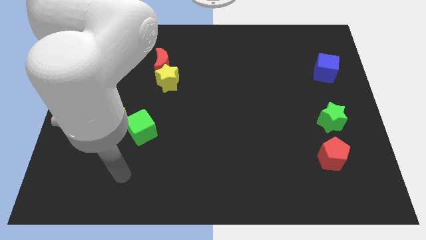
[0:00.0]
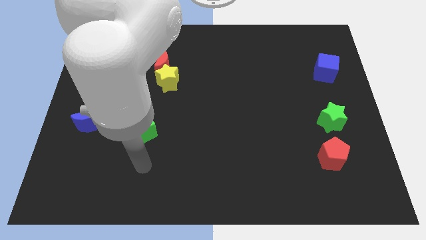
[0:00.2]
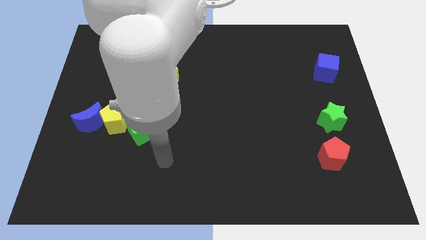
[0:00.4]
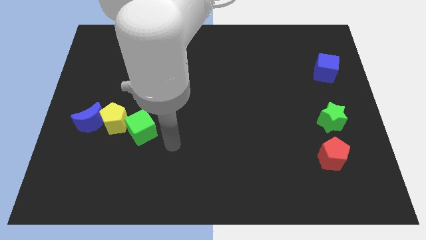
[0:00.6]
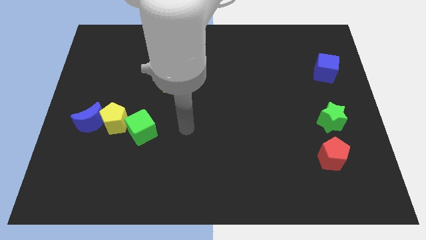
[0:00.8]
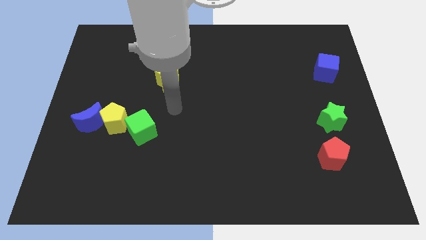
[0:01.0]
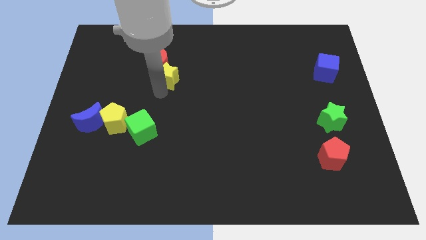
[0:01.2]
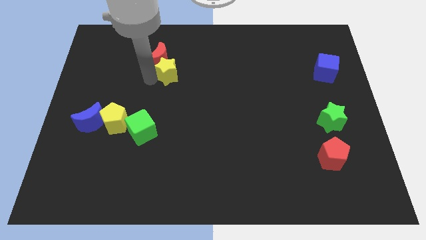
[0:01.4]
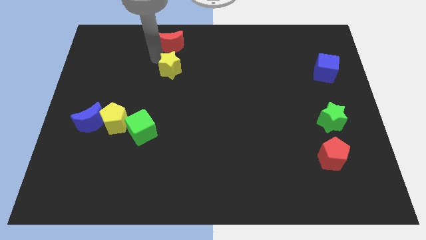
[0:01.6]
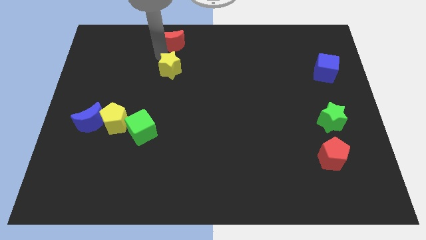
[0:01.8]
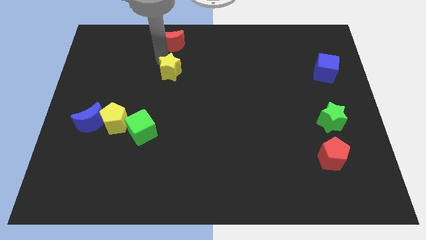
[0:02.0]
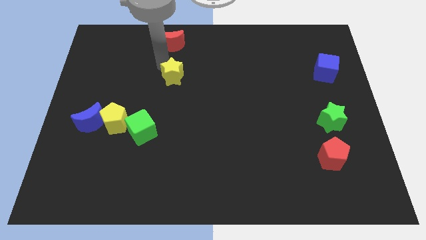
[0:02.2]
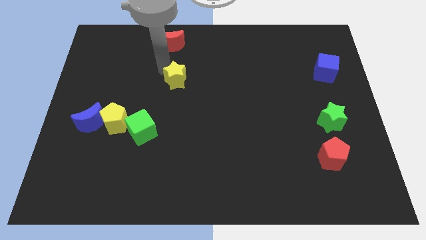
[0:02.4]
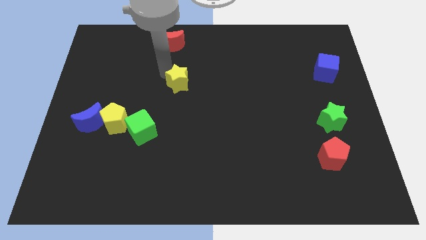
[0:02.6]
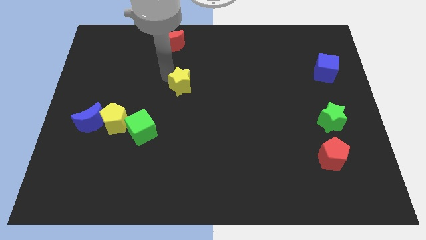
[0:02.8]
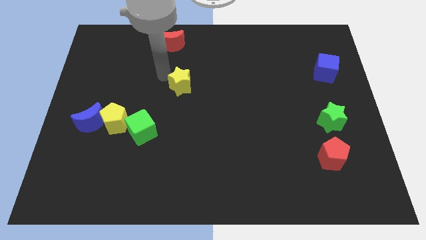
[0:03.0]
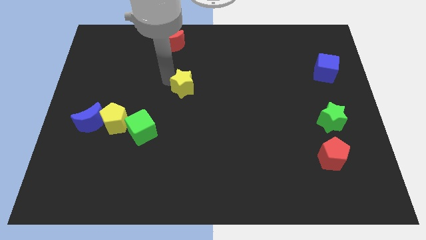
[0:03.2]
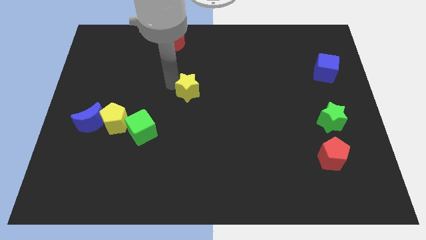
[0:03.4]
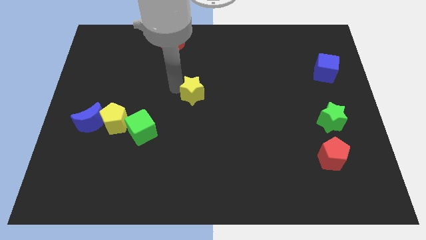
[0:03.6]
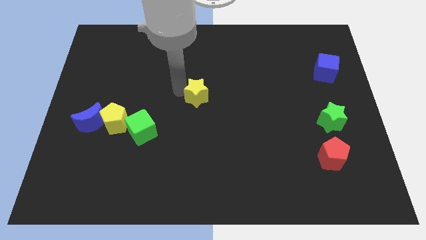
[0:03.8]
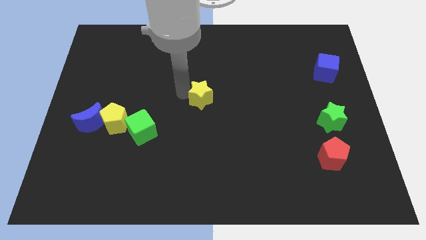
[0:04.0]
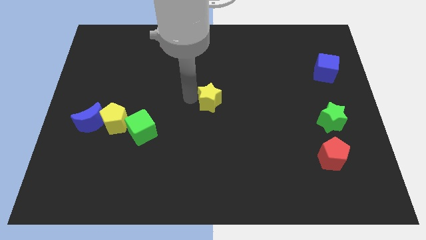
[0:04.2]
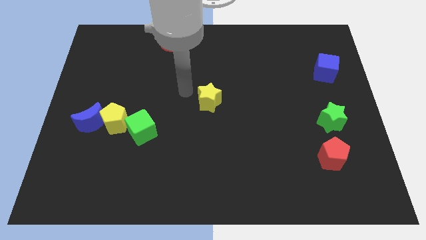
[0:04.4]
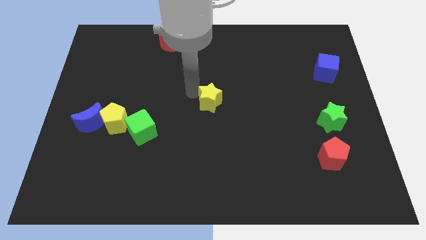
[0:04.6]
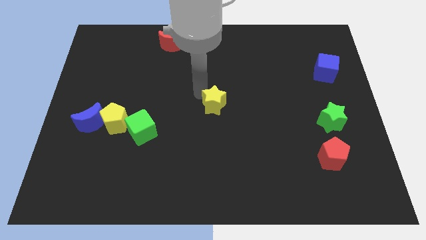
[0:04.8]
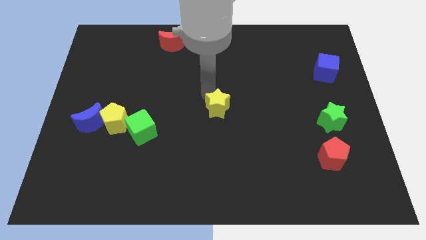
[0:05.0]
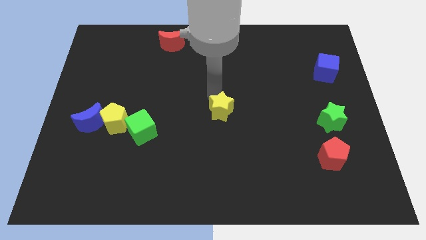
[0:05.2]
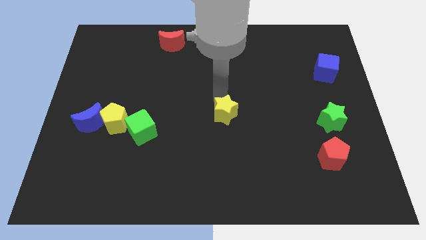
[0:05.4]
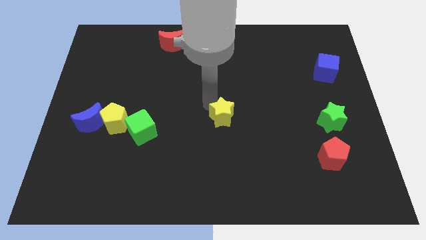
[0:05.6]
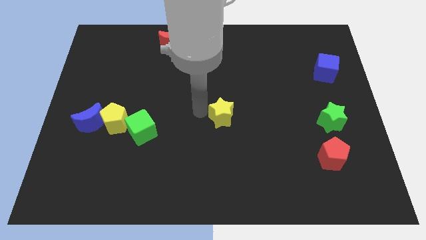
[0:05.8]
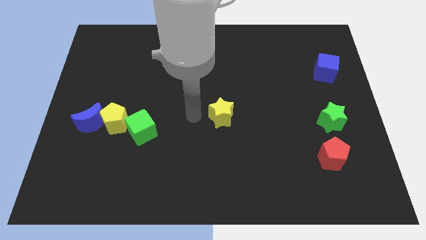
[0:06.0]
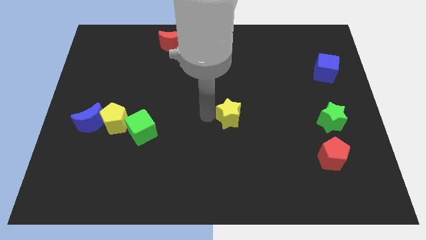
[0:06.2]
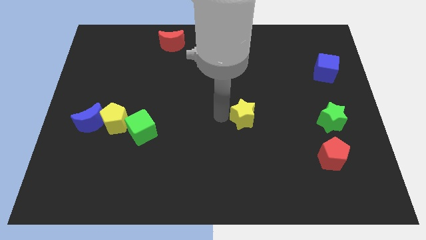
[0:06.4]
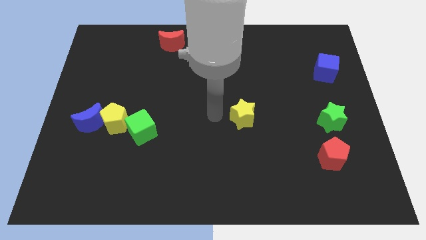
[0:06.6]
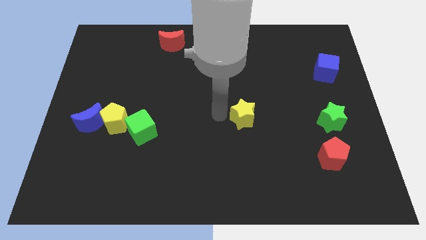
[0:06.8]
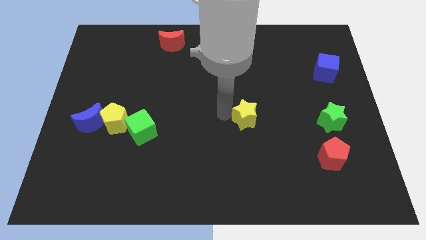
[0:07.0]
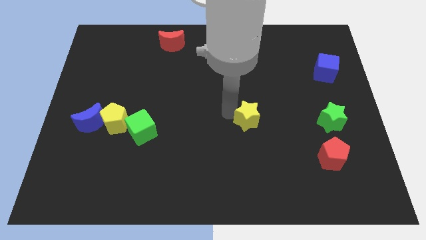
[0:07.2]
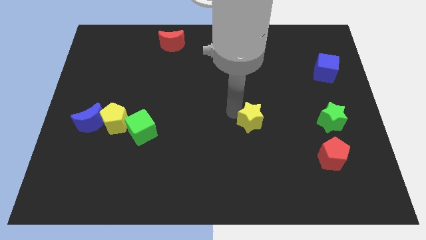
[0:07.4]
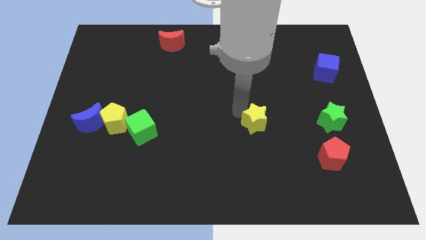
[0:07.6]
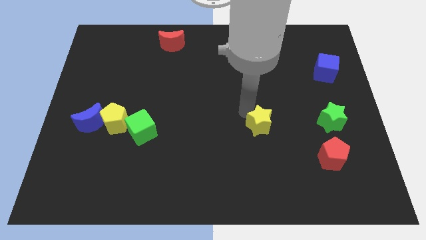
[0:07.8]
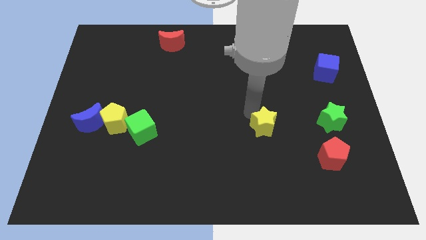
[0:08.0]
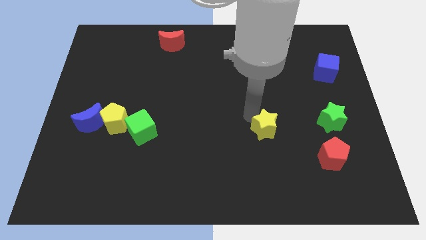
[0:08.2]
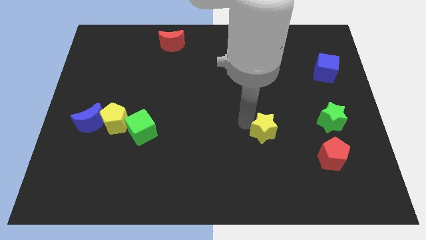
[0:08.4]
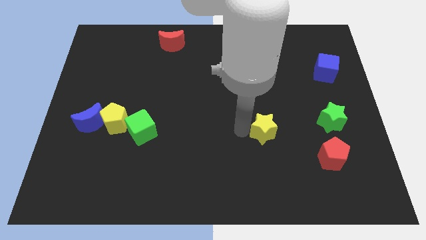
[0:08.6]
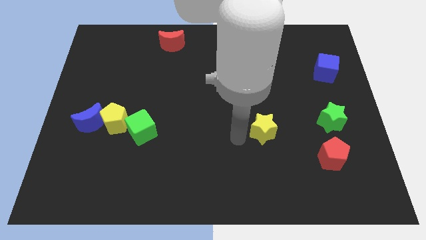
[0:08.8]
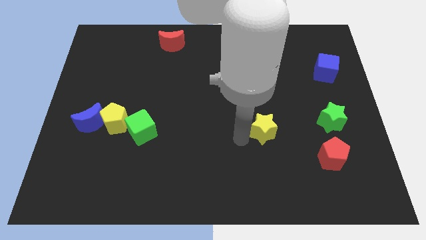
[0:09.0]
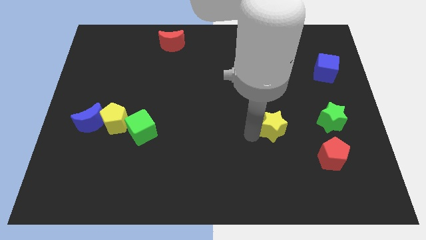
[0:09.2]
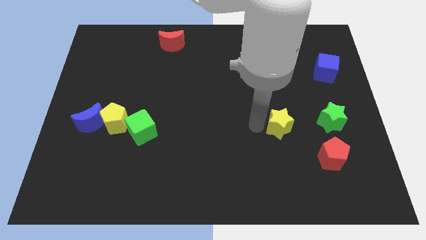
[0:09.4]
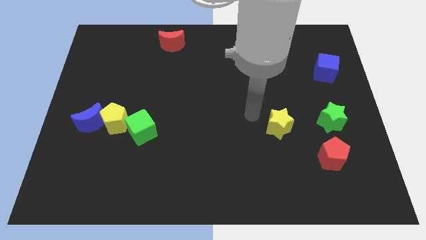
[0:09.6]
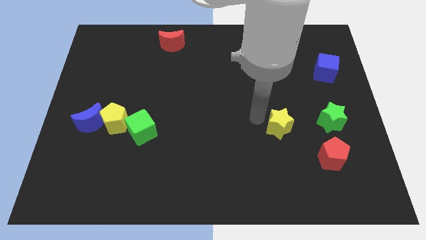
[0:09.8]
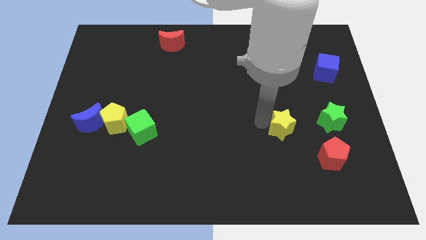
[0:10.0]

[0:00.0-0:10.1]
put the yellow star diagonally up and to the left of the red pentagon

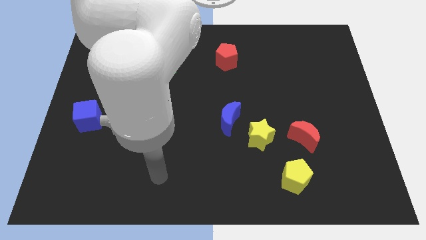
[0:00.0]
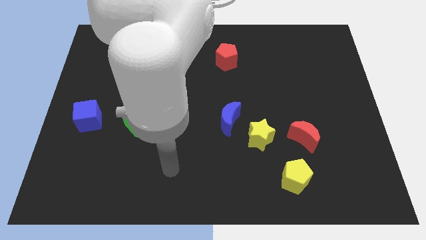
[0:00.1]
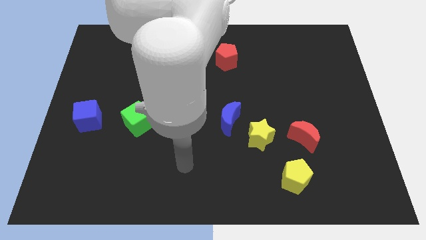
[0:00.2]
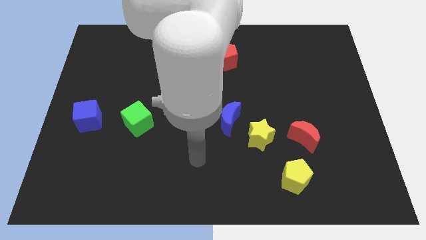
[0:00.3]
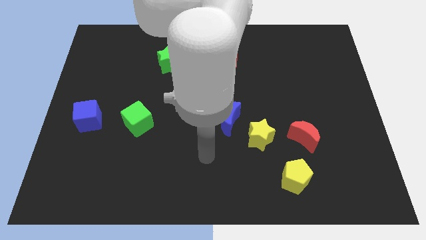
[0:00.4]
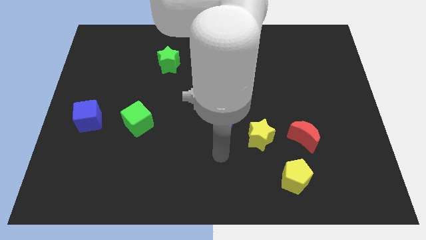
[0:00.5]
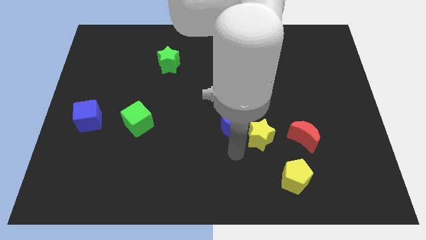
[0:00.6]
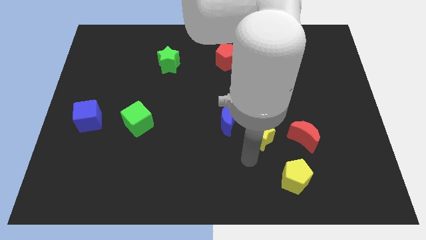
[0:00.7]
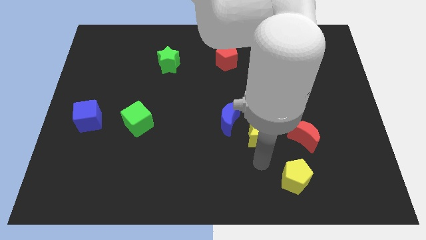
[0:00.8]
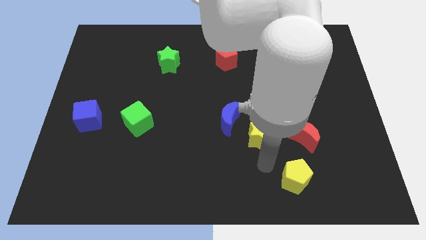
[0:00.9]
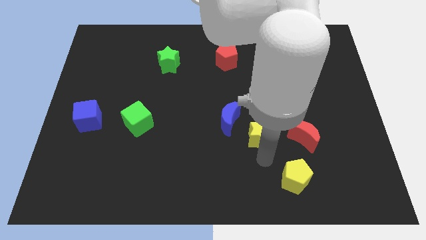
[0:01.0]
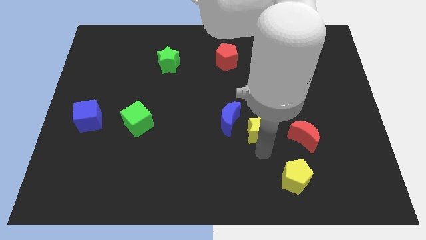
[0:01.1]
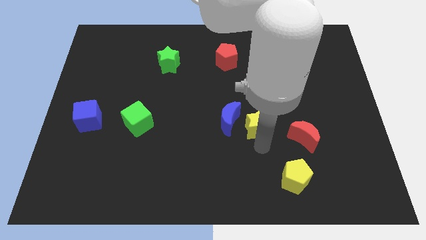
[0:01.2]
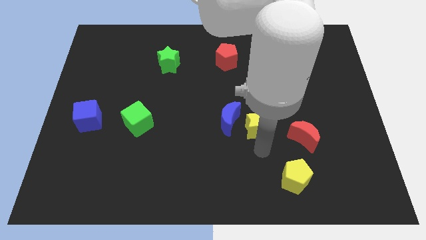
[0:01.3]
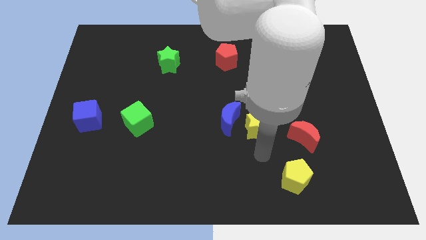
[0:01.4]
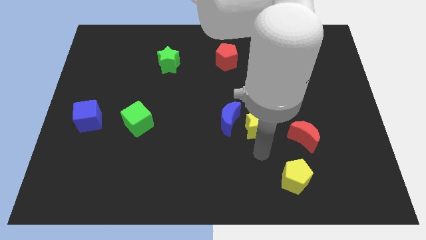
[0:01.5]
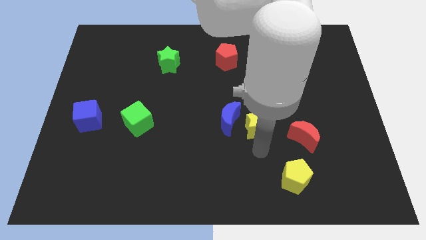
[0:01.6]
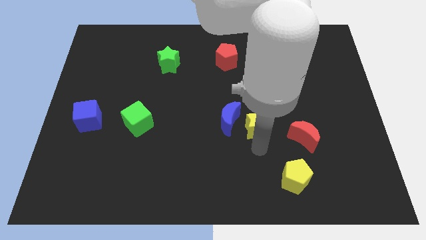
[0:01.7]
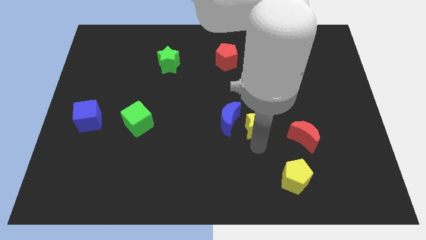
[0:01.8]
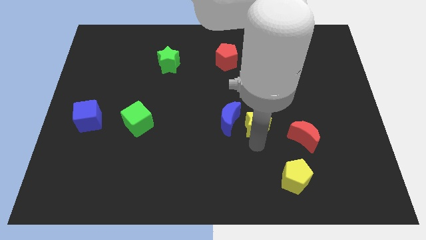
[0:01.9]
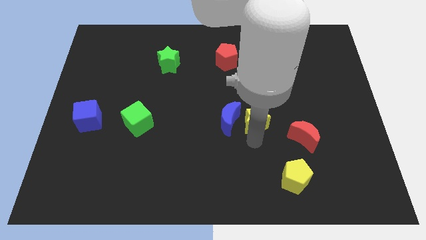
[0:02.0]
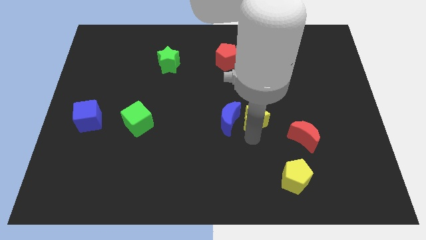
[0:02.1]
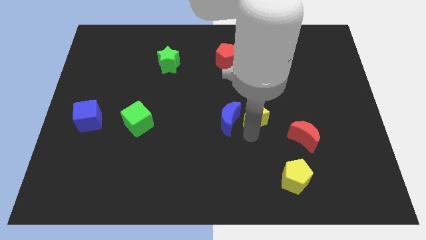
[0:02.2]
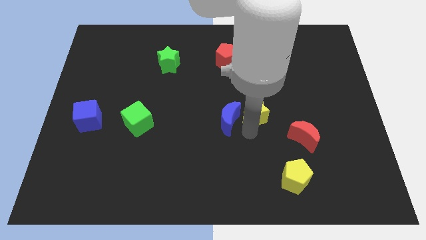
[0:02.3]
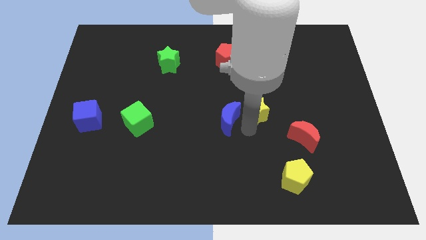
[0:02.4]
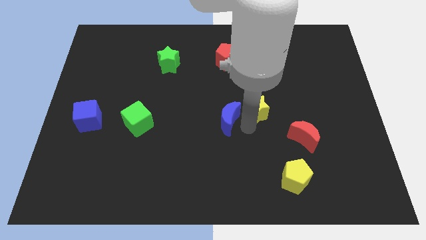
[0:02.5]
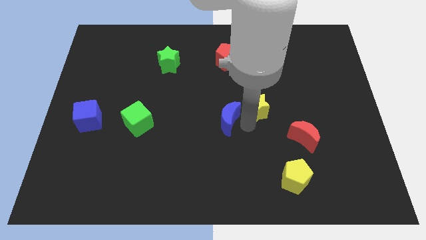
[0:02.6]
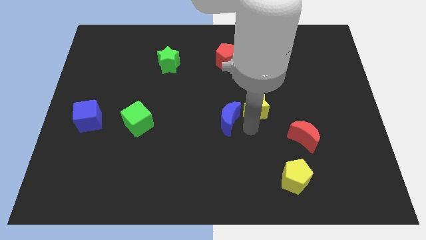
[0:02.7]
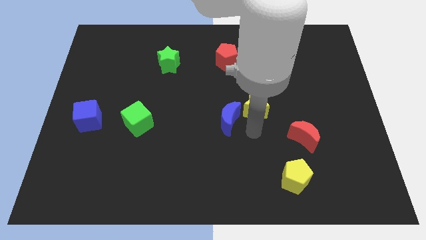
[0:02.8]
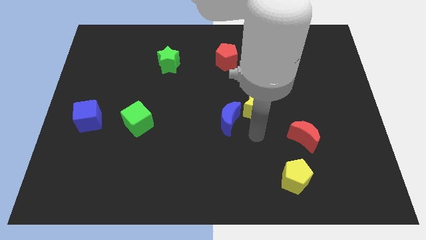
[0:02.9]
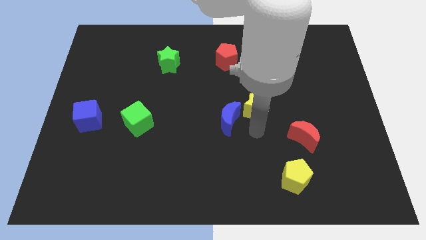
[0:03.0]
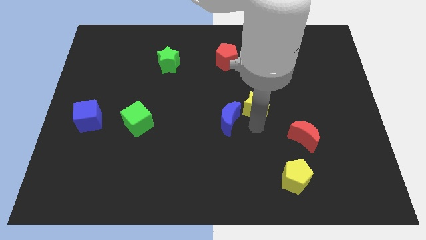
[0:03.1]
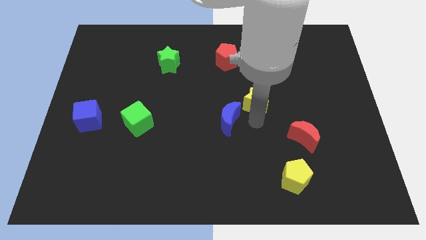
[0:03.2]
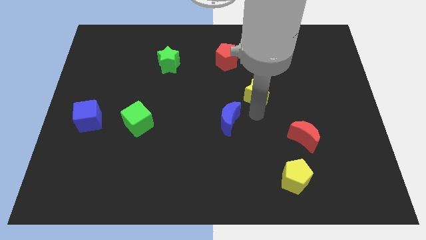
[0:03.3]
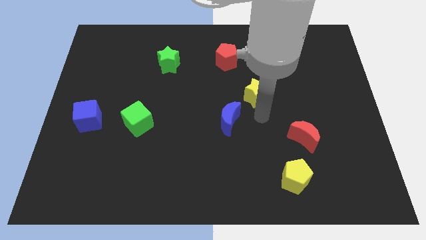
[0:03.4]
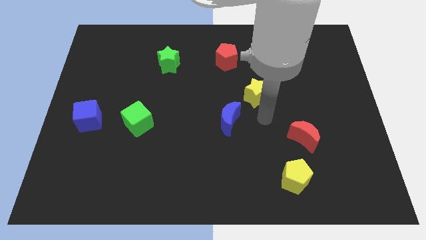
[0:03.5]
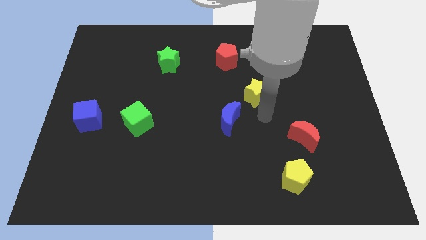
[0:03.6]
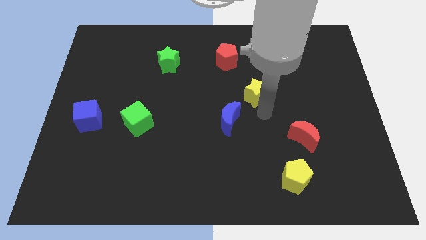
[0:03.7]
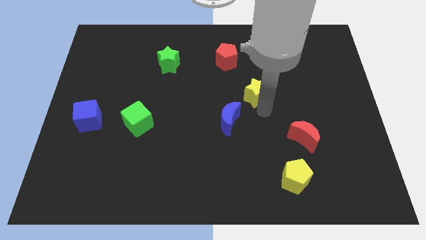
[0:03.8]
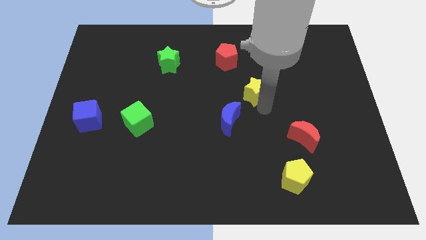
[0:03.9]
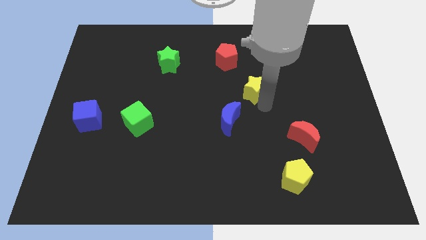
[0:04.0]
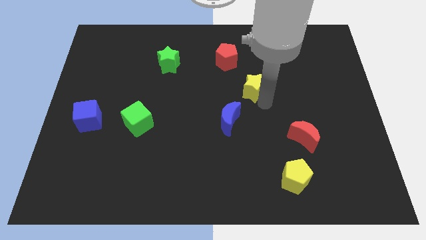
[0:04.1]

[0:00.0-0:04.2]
put the yellow star to the bottom right side of the red pentagon
